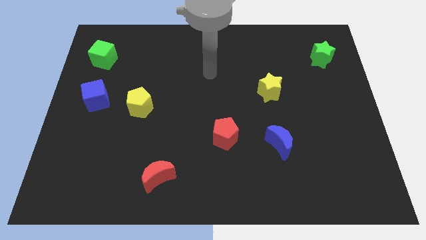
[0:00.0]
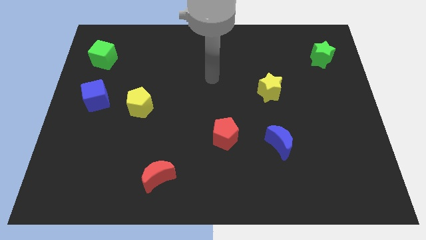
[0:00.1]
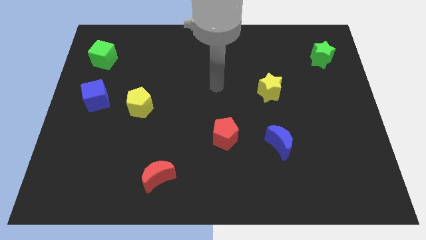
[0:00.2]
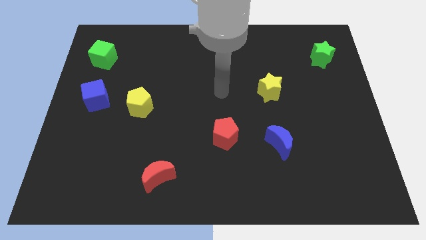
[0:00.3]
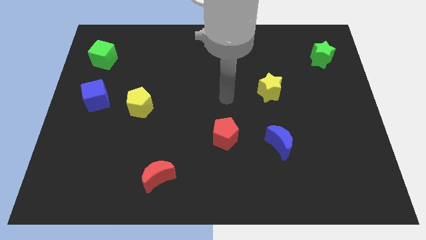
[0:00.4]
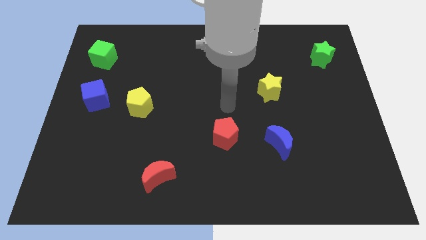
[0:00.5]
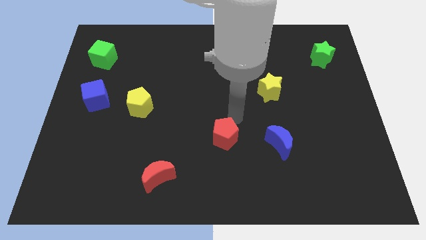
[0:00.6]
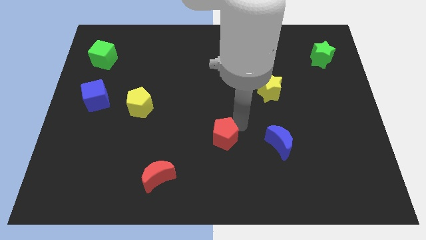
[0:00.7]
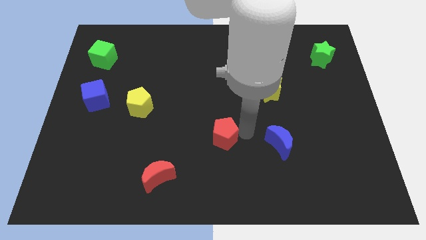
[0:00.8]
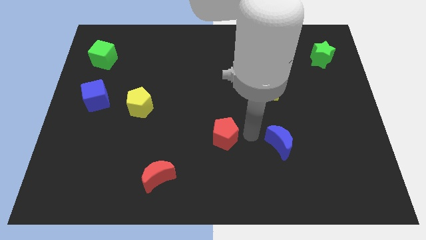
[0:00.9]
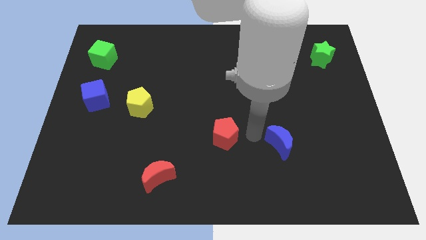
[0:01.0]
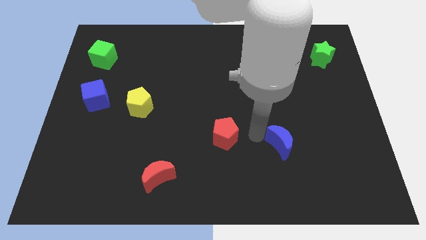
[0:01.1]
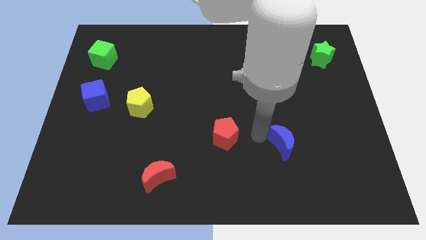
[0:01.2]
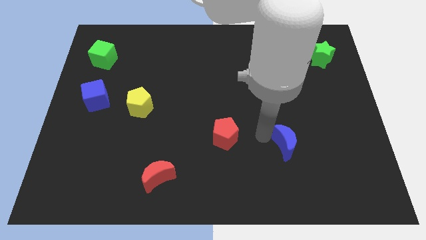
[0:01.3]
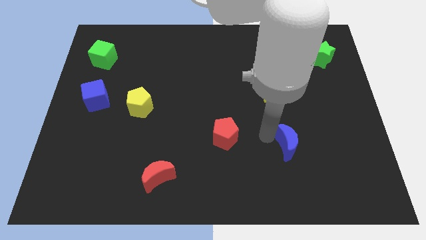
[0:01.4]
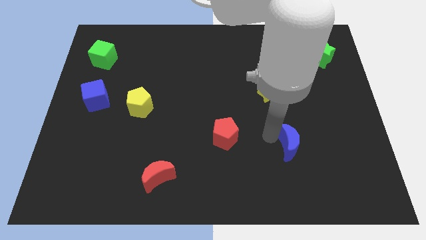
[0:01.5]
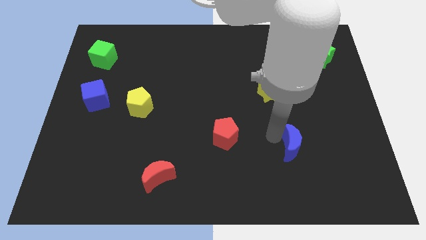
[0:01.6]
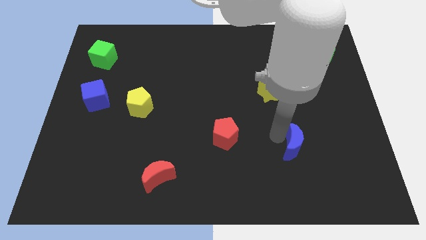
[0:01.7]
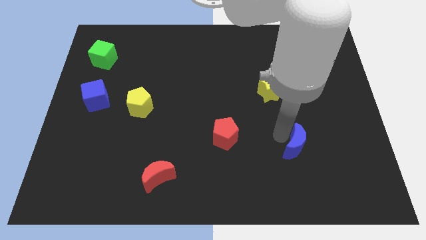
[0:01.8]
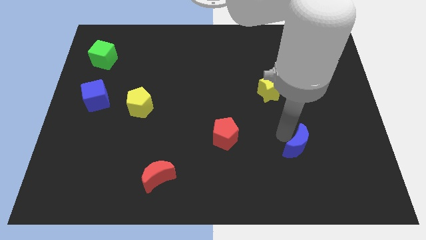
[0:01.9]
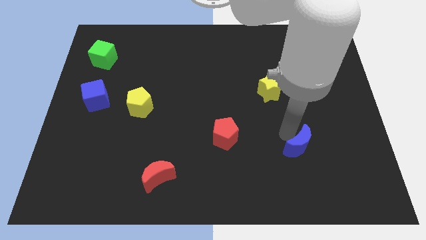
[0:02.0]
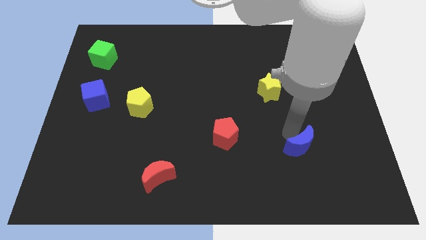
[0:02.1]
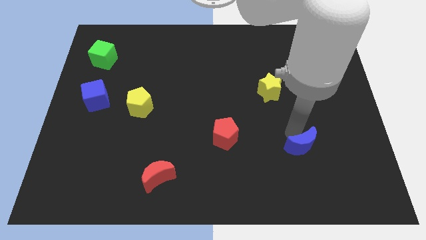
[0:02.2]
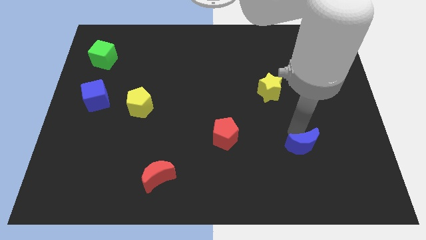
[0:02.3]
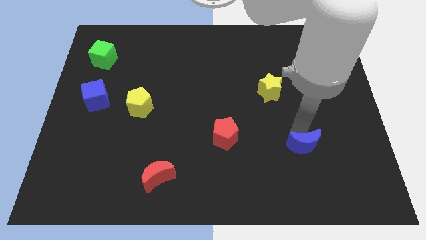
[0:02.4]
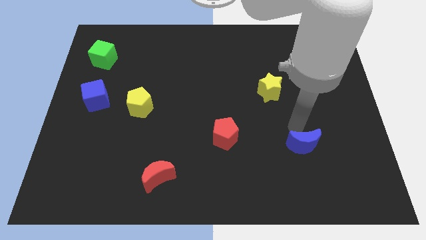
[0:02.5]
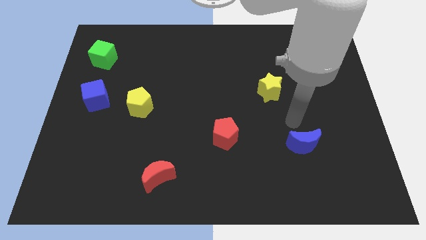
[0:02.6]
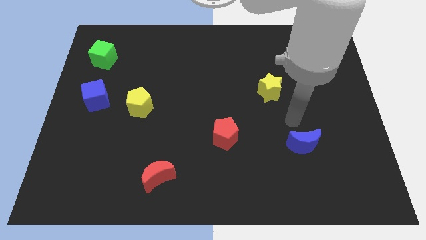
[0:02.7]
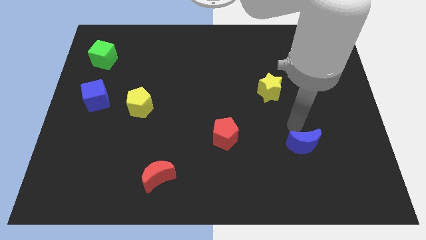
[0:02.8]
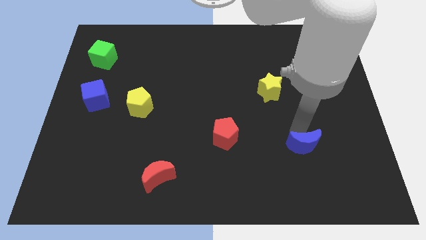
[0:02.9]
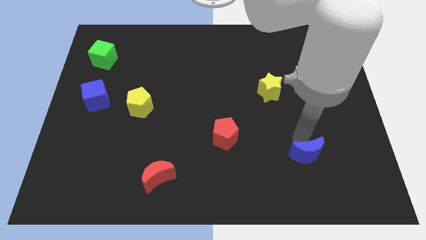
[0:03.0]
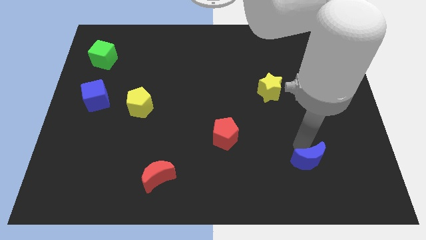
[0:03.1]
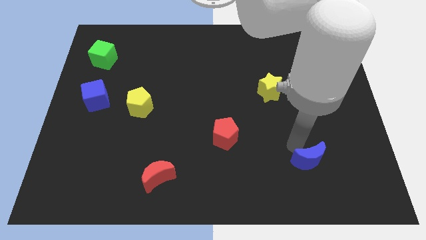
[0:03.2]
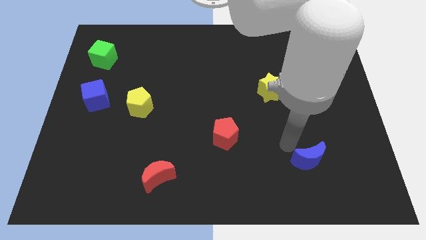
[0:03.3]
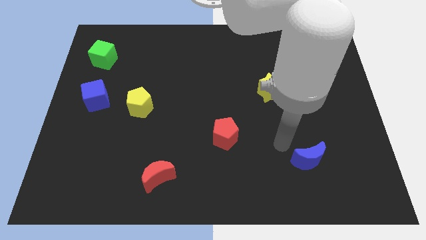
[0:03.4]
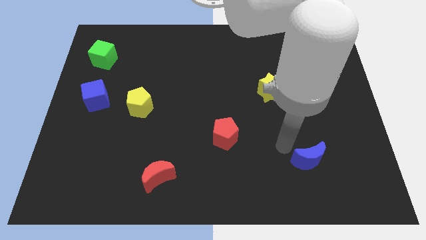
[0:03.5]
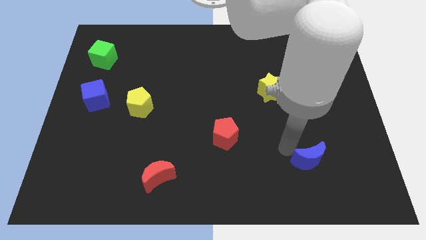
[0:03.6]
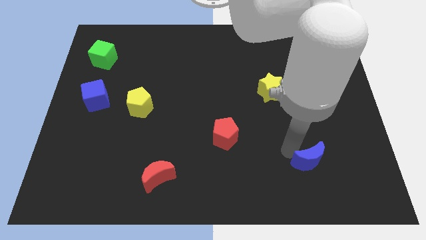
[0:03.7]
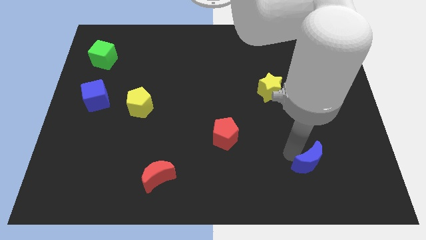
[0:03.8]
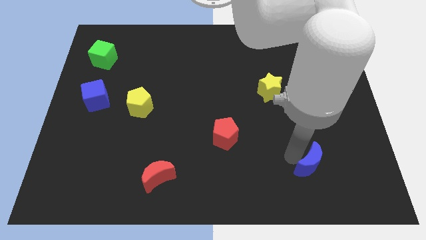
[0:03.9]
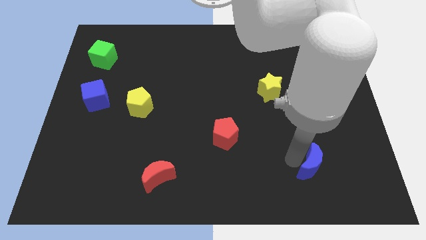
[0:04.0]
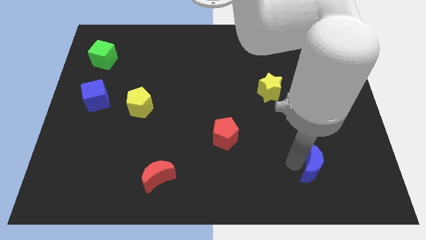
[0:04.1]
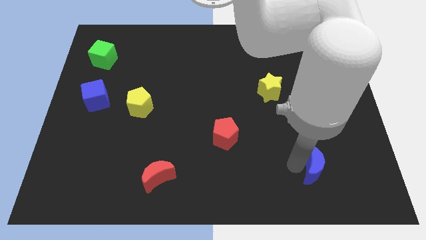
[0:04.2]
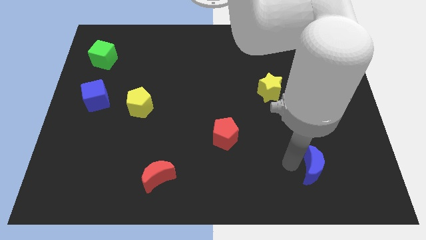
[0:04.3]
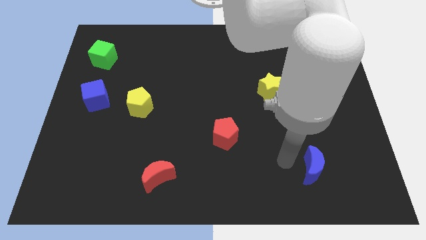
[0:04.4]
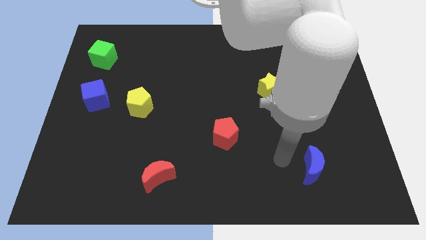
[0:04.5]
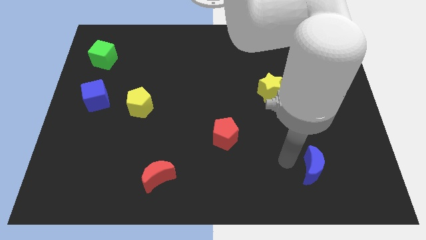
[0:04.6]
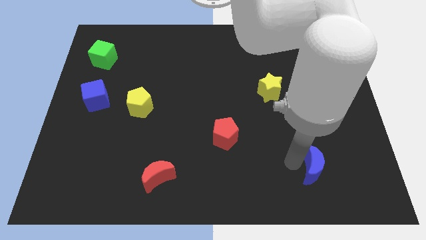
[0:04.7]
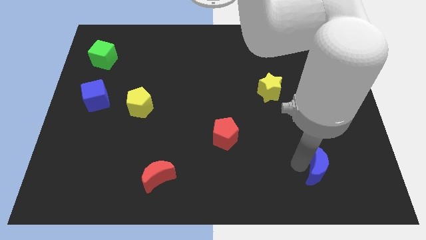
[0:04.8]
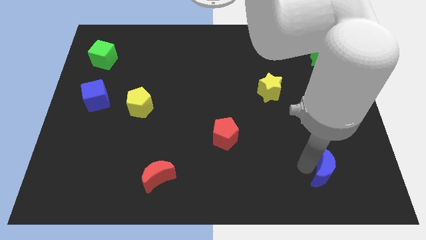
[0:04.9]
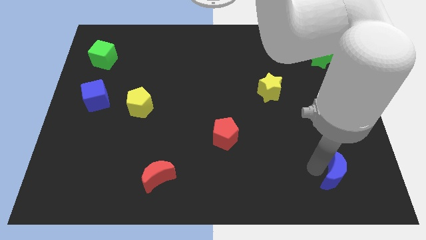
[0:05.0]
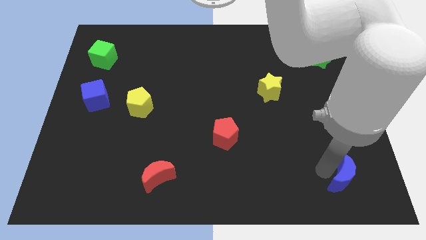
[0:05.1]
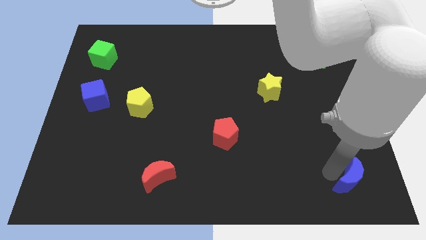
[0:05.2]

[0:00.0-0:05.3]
put the blue moon to the lower right corner

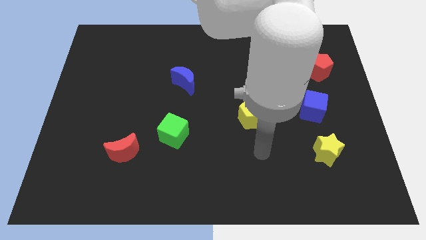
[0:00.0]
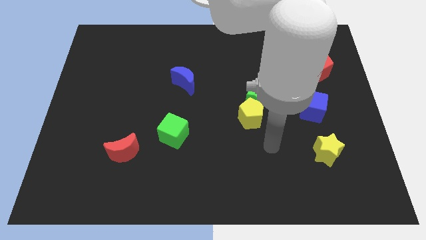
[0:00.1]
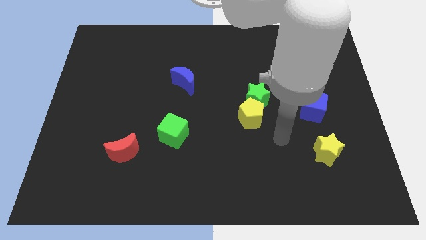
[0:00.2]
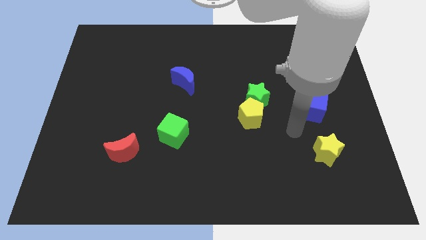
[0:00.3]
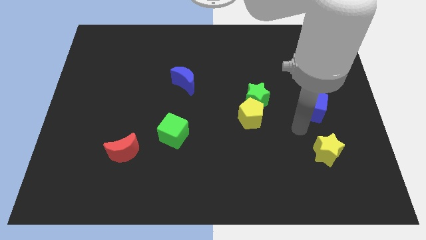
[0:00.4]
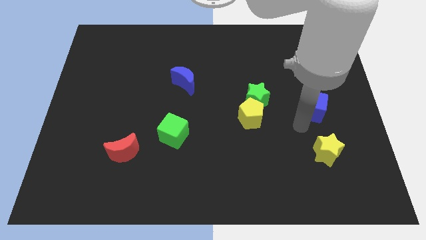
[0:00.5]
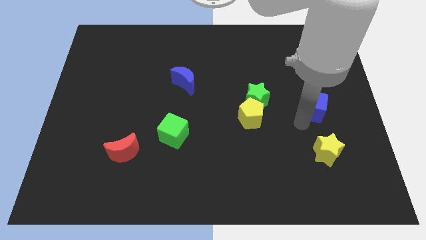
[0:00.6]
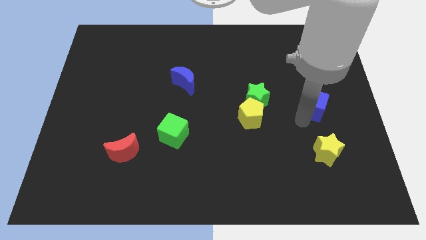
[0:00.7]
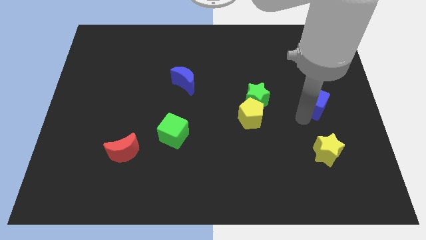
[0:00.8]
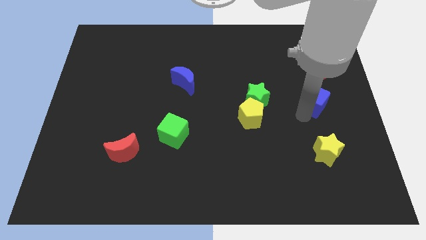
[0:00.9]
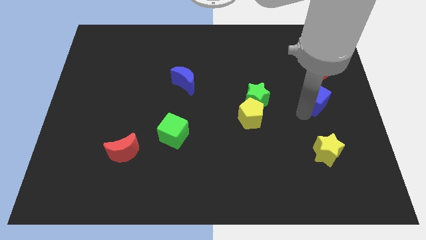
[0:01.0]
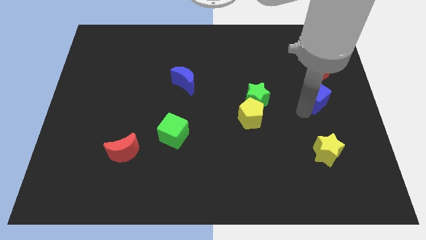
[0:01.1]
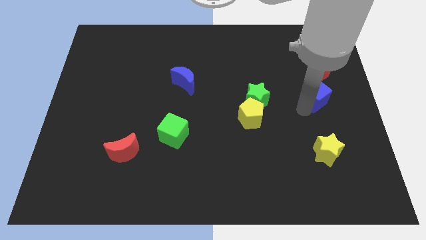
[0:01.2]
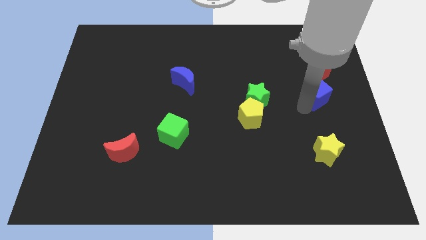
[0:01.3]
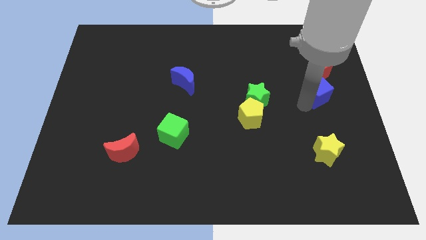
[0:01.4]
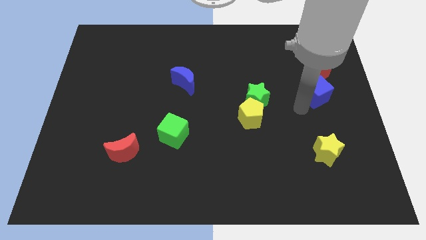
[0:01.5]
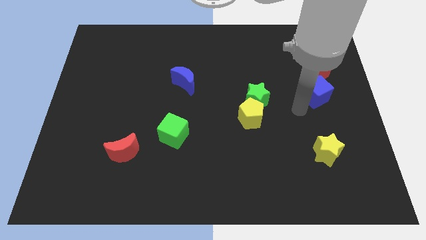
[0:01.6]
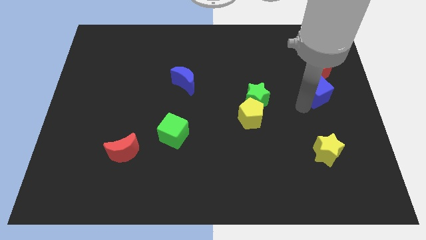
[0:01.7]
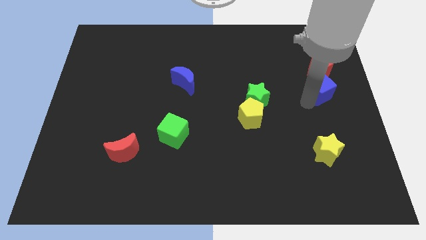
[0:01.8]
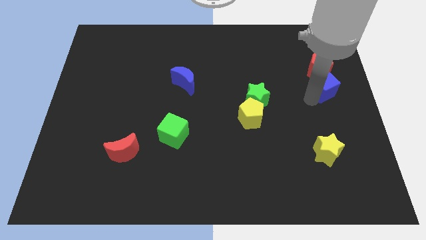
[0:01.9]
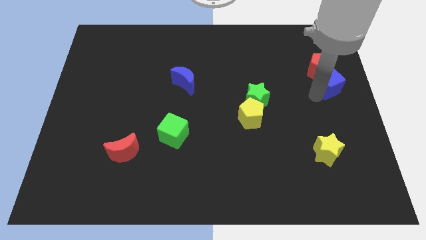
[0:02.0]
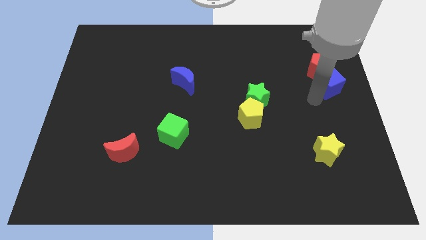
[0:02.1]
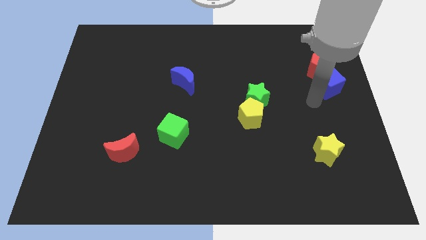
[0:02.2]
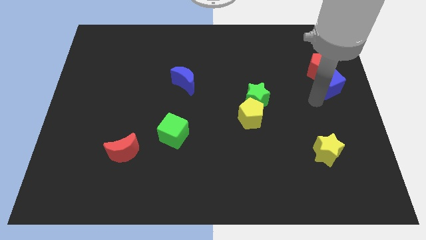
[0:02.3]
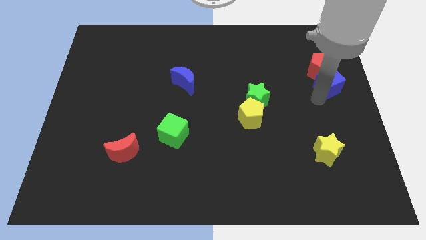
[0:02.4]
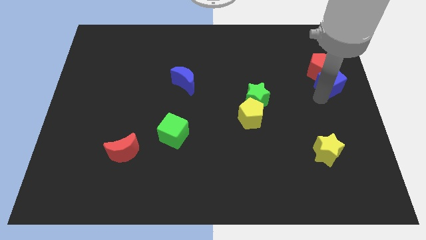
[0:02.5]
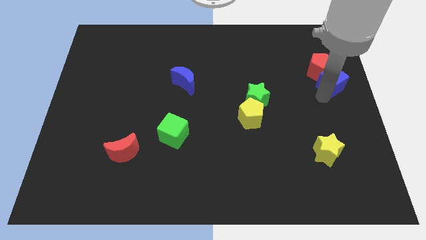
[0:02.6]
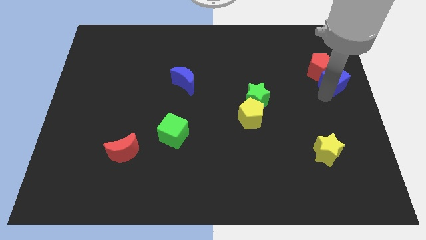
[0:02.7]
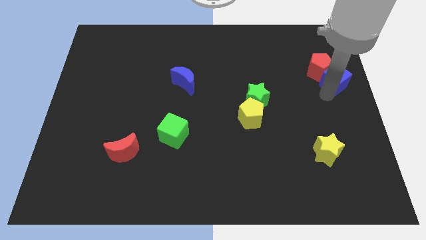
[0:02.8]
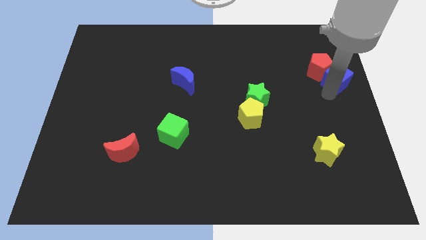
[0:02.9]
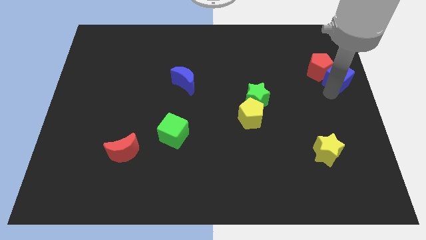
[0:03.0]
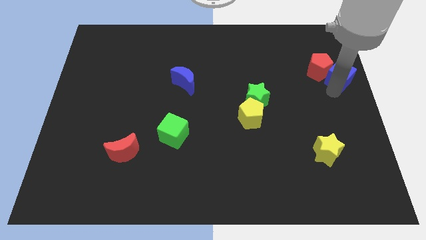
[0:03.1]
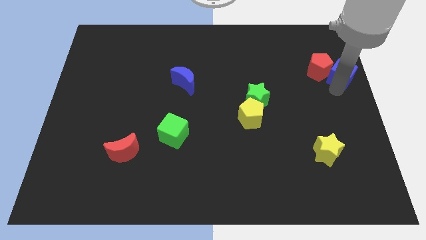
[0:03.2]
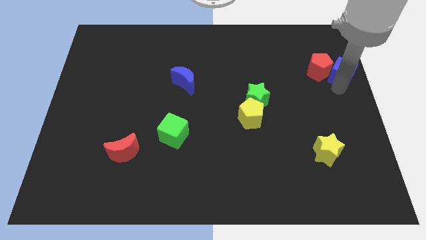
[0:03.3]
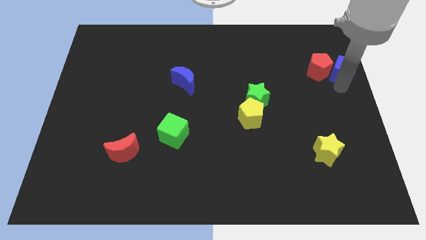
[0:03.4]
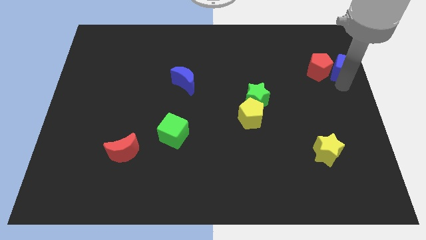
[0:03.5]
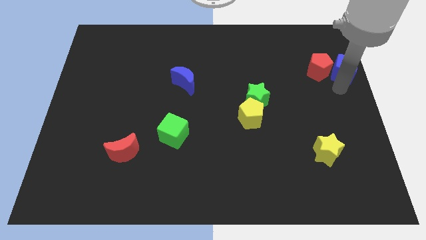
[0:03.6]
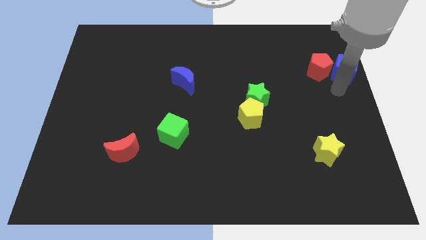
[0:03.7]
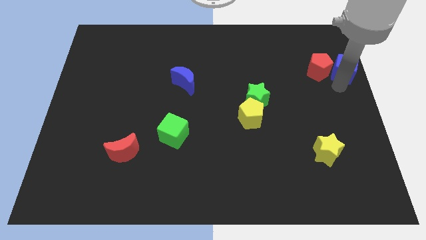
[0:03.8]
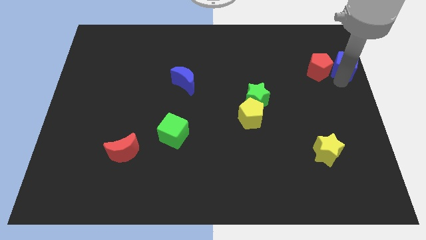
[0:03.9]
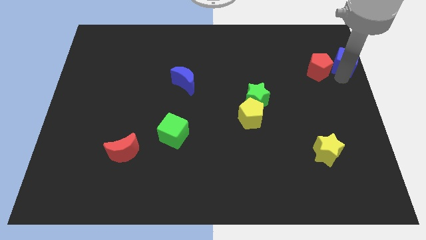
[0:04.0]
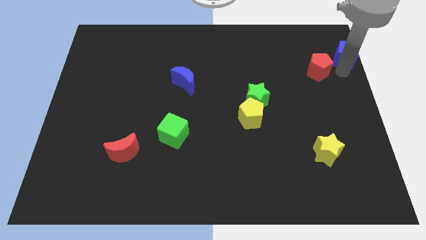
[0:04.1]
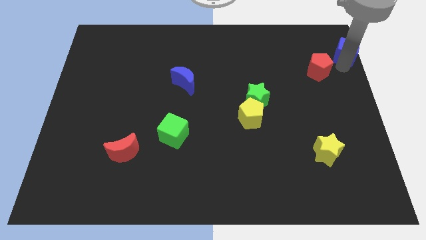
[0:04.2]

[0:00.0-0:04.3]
push the blue cube to the top right of the board
